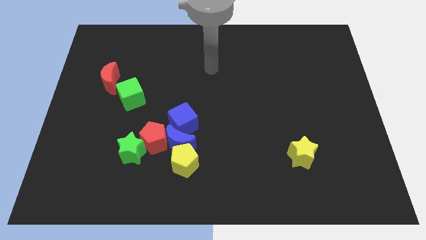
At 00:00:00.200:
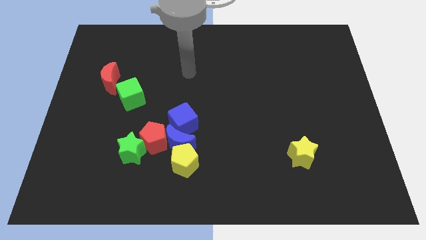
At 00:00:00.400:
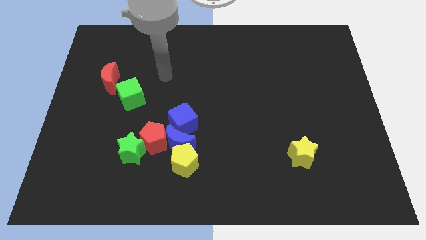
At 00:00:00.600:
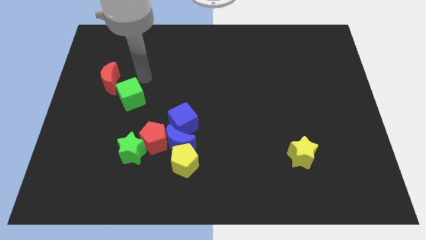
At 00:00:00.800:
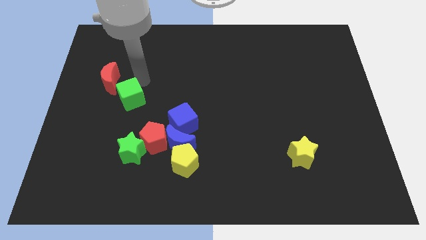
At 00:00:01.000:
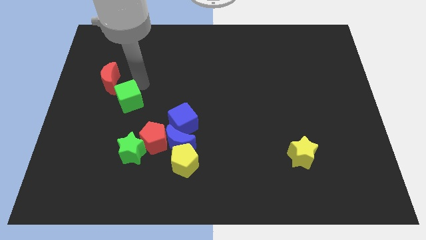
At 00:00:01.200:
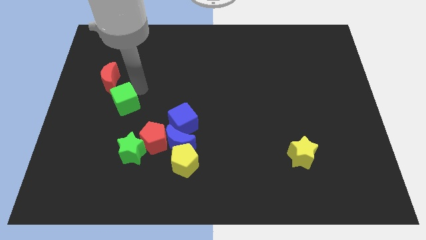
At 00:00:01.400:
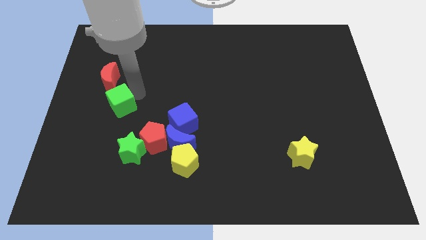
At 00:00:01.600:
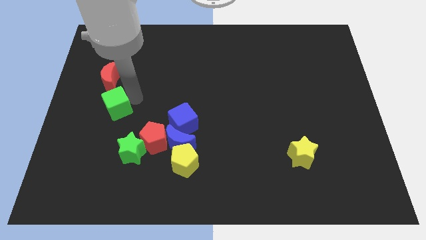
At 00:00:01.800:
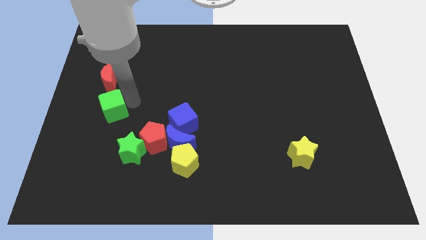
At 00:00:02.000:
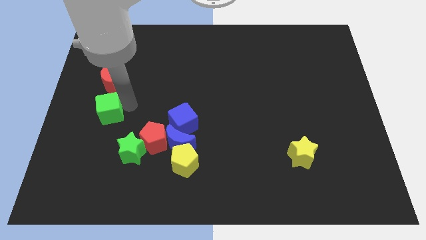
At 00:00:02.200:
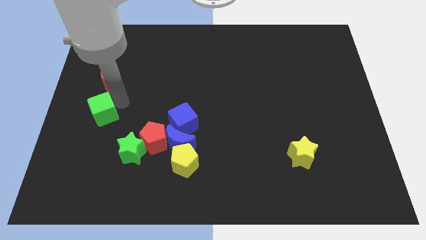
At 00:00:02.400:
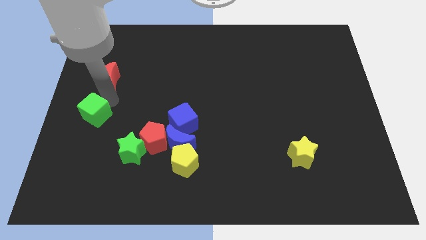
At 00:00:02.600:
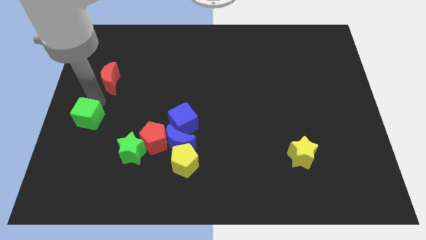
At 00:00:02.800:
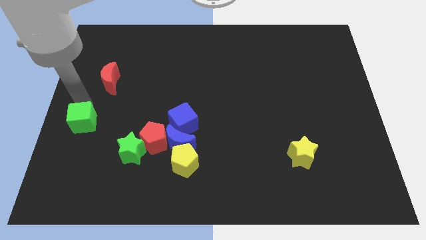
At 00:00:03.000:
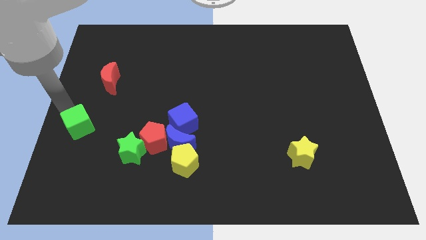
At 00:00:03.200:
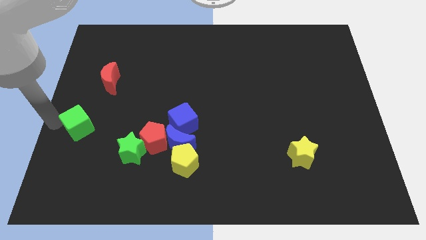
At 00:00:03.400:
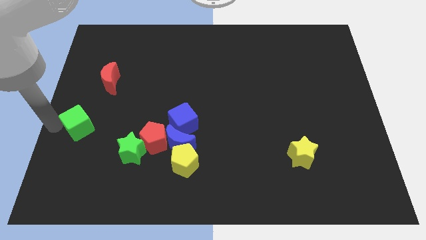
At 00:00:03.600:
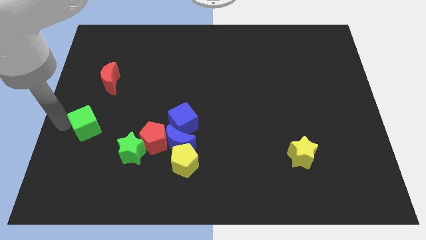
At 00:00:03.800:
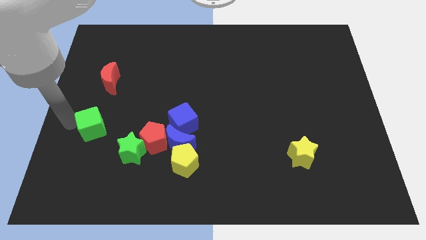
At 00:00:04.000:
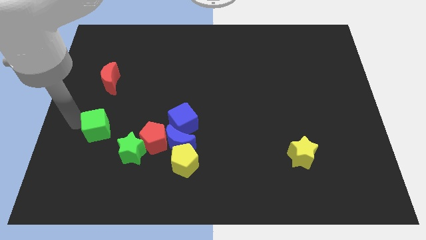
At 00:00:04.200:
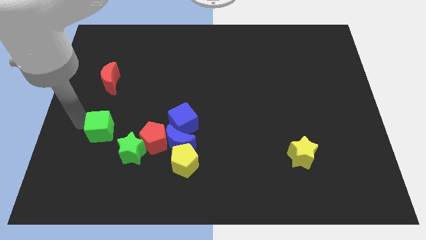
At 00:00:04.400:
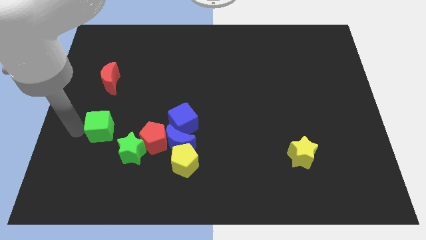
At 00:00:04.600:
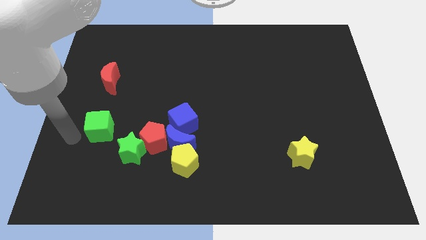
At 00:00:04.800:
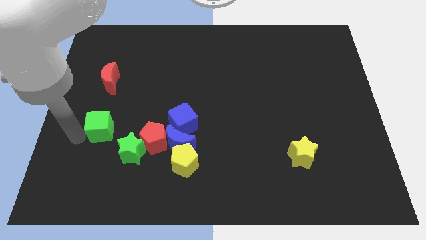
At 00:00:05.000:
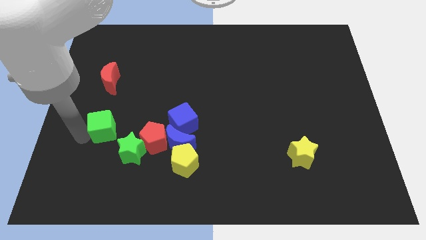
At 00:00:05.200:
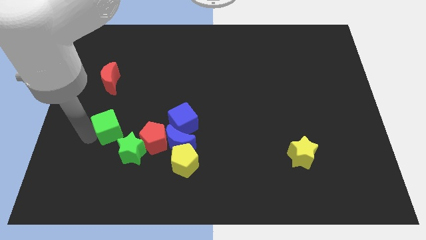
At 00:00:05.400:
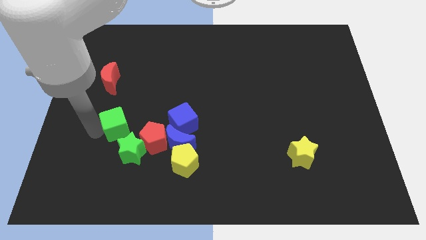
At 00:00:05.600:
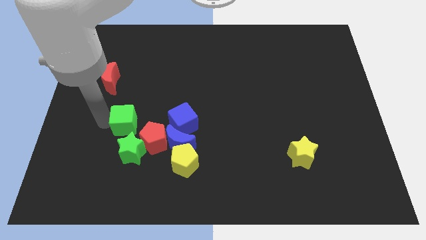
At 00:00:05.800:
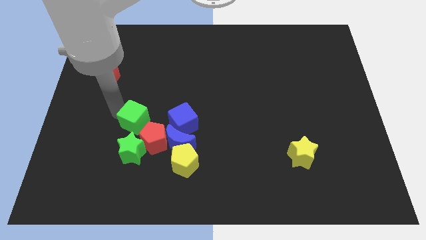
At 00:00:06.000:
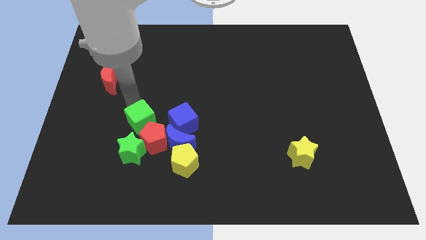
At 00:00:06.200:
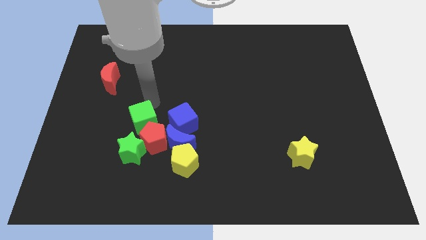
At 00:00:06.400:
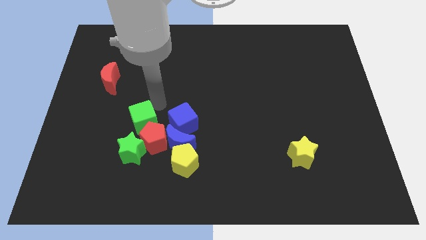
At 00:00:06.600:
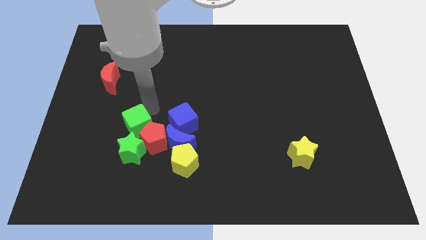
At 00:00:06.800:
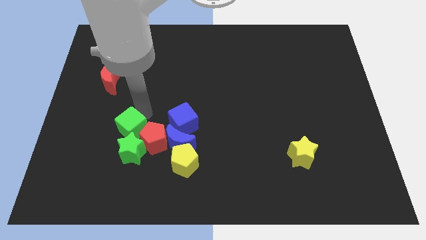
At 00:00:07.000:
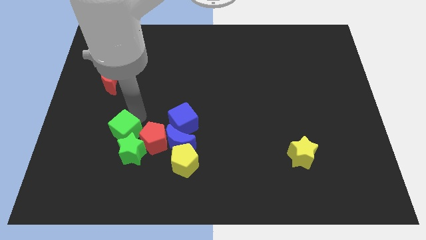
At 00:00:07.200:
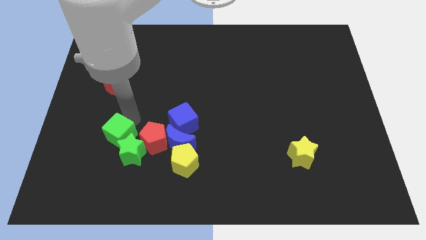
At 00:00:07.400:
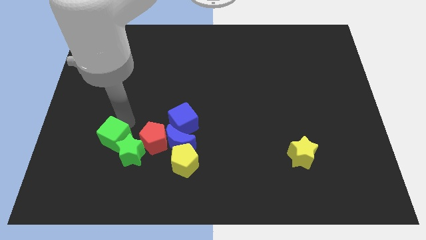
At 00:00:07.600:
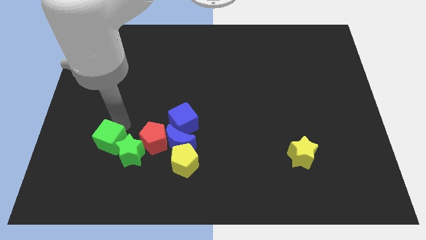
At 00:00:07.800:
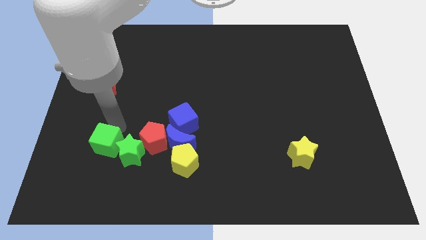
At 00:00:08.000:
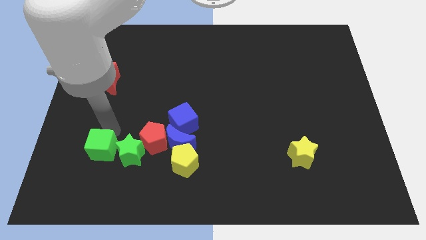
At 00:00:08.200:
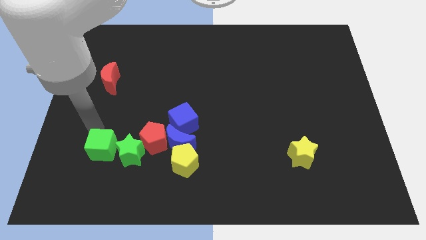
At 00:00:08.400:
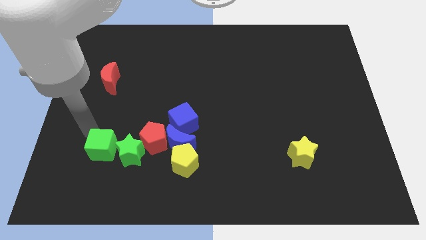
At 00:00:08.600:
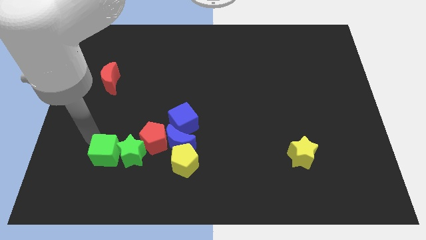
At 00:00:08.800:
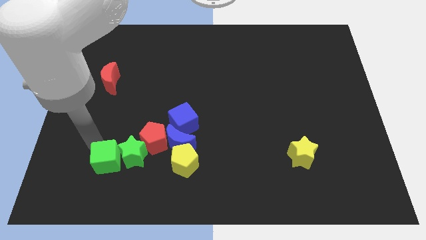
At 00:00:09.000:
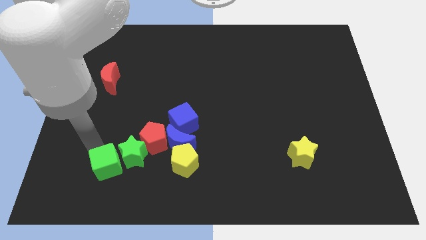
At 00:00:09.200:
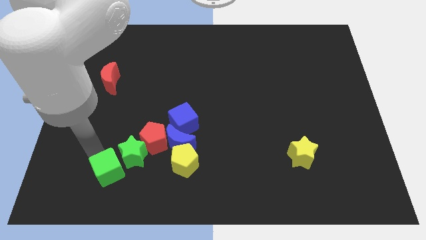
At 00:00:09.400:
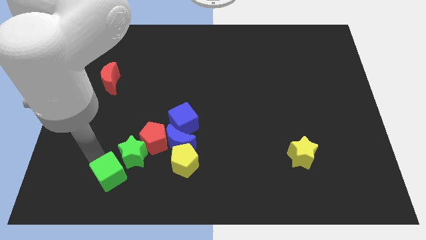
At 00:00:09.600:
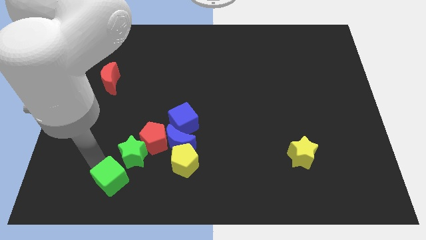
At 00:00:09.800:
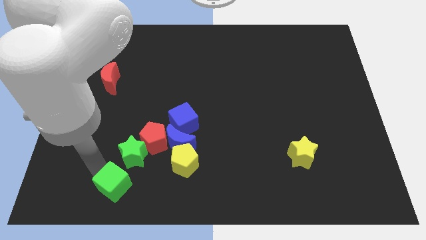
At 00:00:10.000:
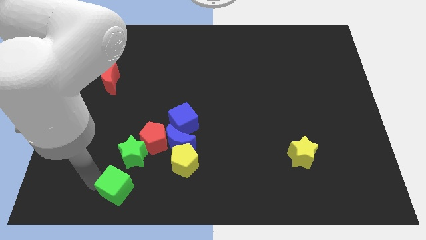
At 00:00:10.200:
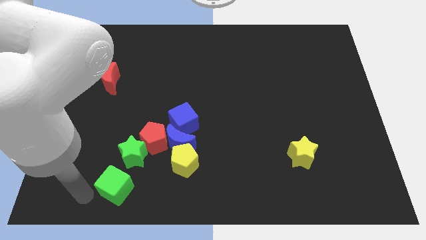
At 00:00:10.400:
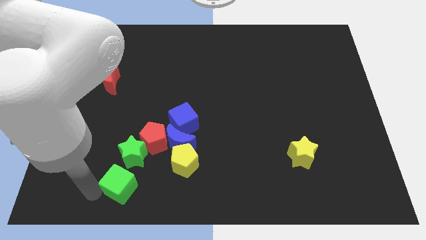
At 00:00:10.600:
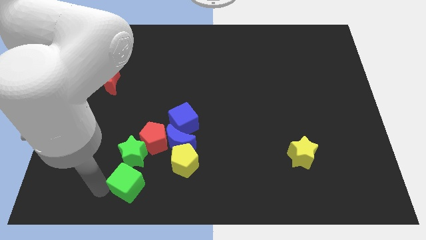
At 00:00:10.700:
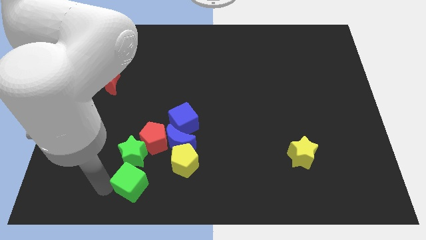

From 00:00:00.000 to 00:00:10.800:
put the green cube diagonally down and to the right of the green star

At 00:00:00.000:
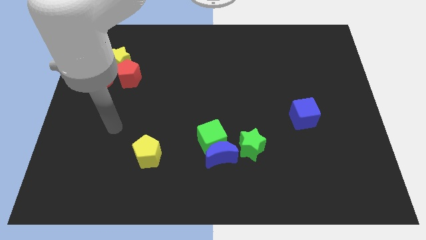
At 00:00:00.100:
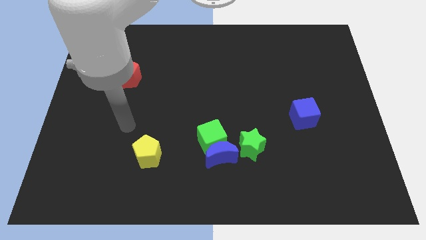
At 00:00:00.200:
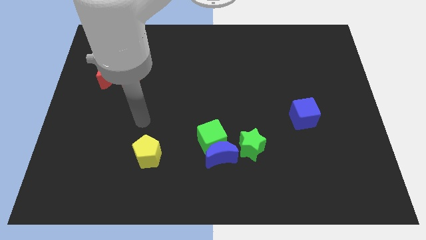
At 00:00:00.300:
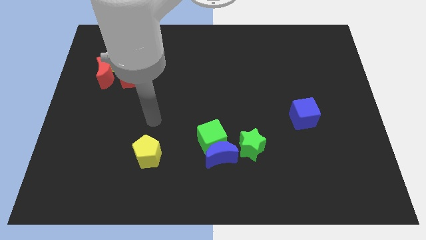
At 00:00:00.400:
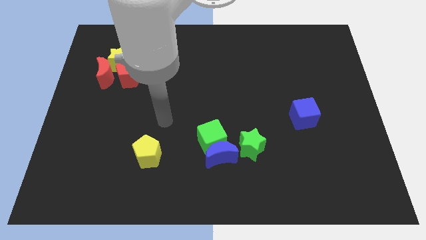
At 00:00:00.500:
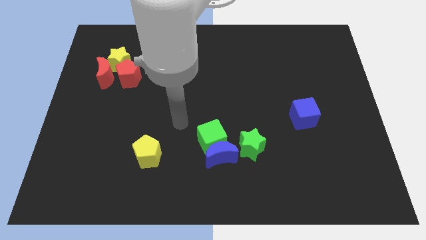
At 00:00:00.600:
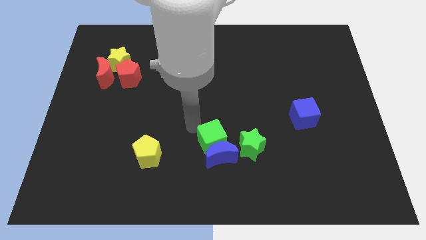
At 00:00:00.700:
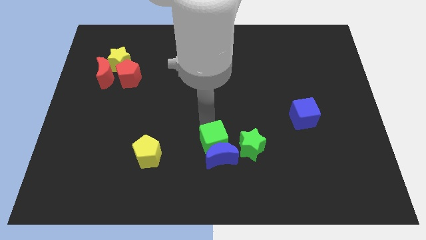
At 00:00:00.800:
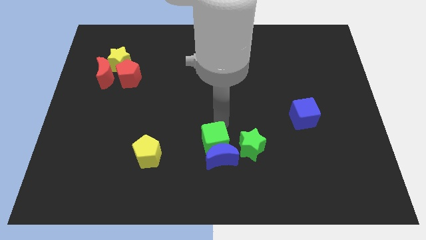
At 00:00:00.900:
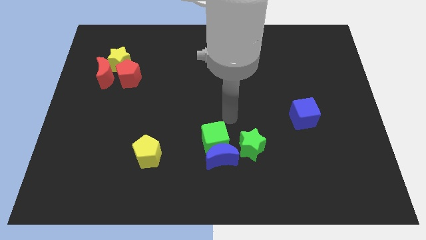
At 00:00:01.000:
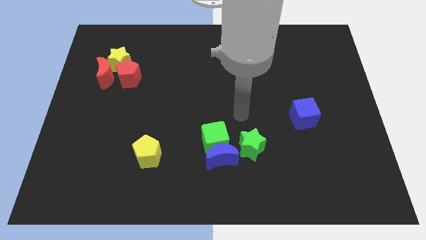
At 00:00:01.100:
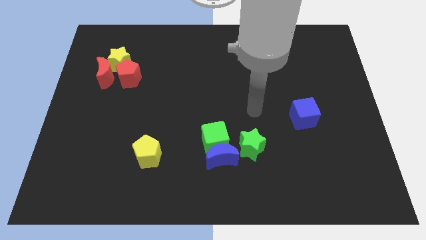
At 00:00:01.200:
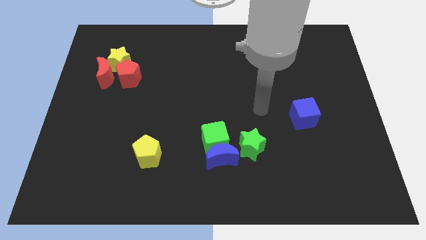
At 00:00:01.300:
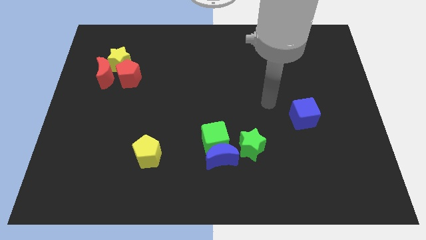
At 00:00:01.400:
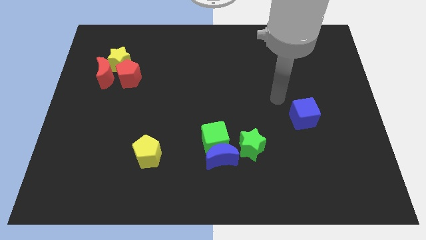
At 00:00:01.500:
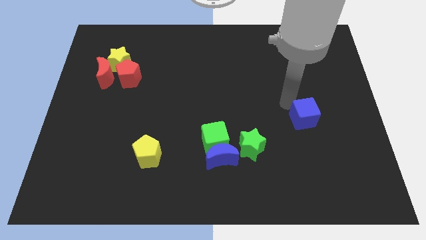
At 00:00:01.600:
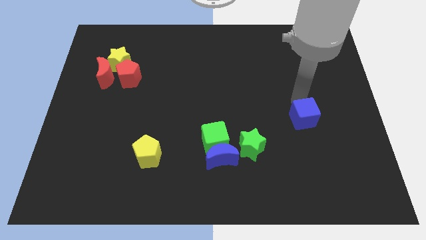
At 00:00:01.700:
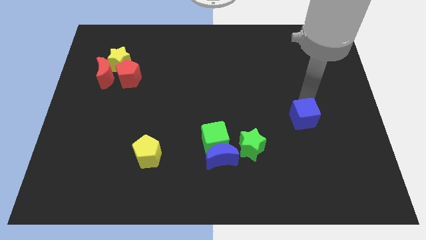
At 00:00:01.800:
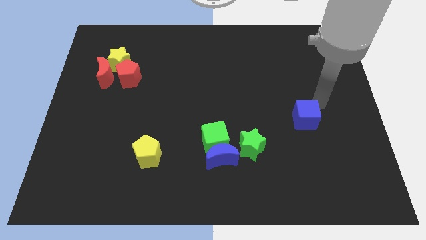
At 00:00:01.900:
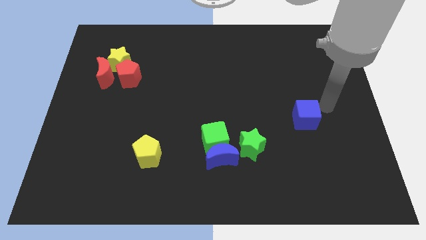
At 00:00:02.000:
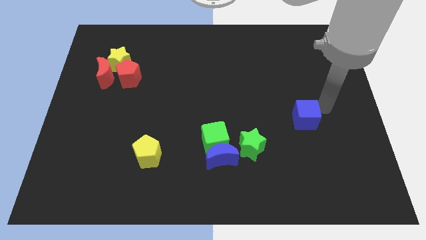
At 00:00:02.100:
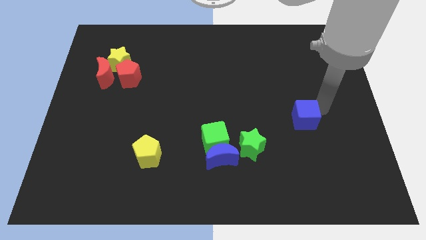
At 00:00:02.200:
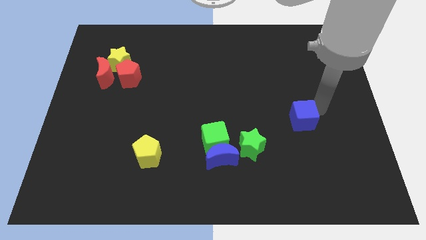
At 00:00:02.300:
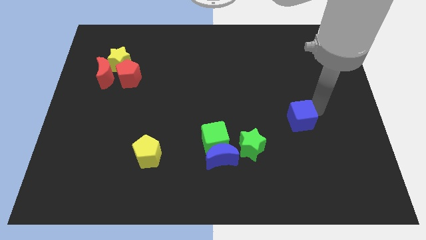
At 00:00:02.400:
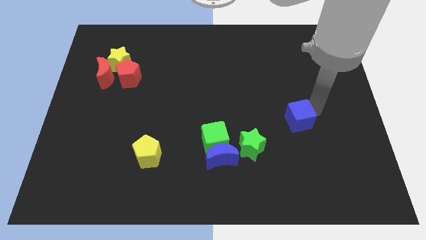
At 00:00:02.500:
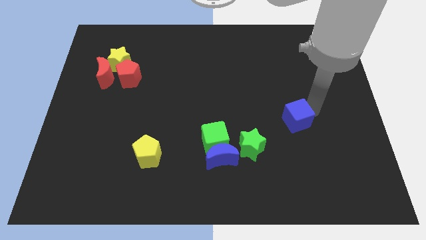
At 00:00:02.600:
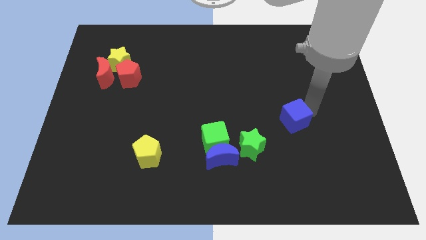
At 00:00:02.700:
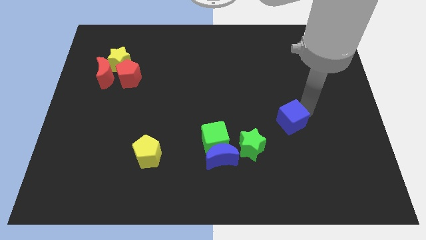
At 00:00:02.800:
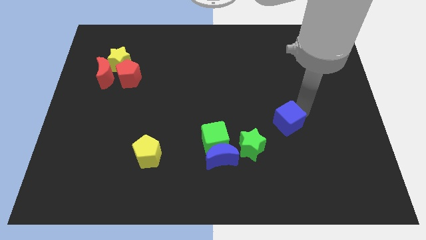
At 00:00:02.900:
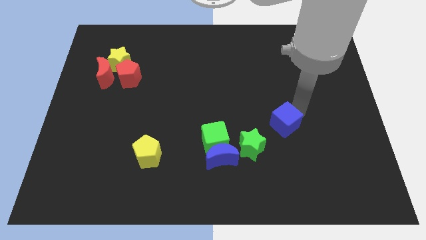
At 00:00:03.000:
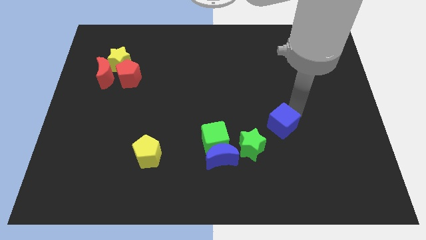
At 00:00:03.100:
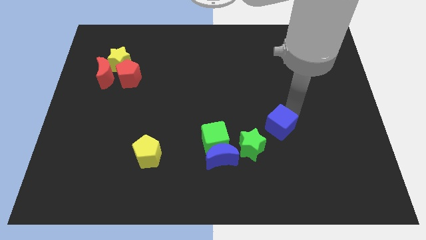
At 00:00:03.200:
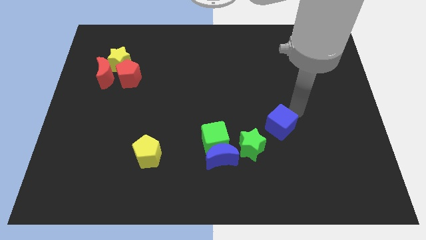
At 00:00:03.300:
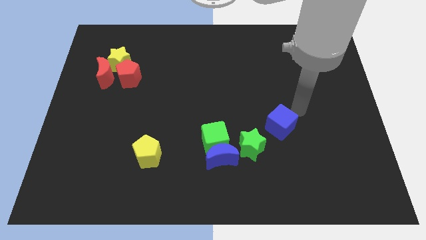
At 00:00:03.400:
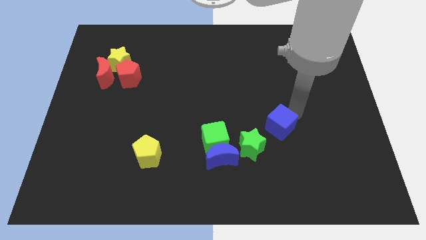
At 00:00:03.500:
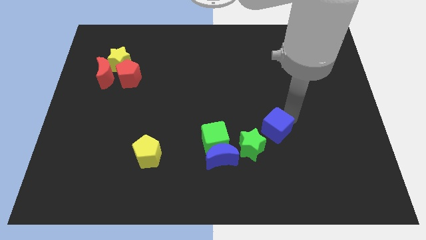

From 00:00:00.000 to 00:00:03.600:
push the blue cube to the right side of the green cube
